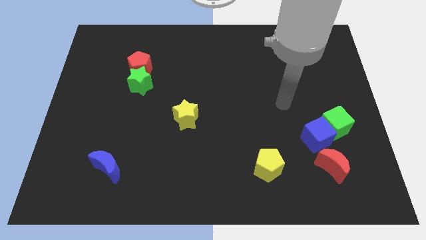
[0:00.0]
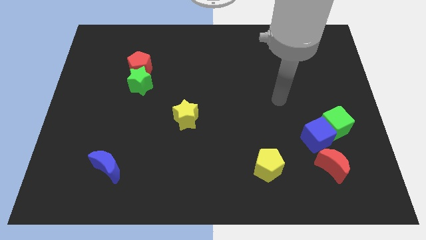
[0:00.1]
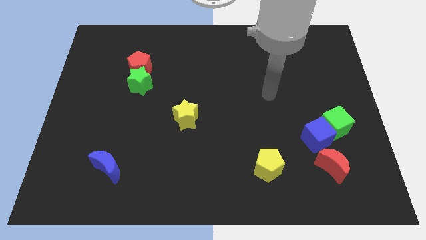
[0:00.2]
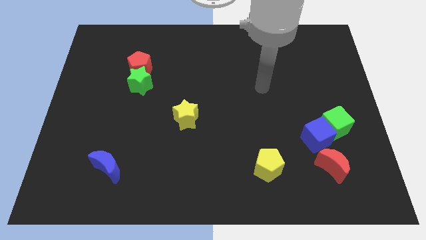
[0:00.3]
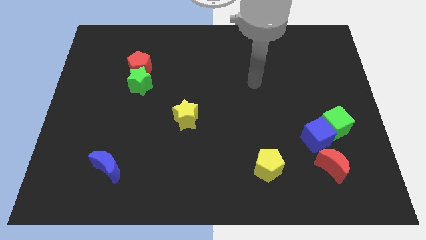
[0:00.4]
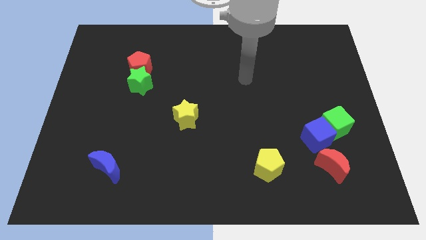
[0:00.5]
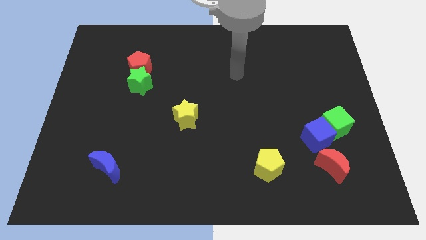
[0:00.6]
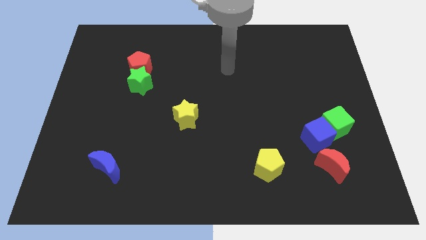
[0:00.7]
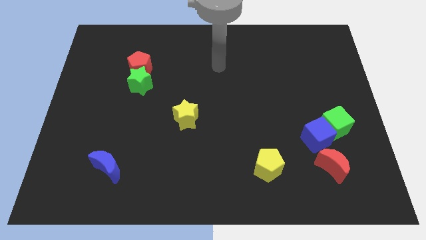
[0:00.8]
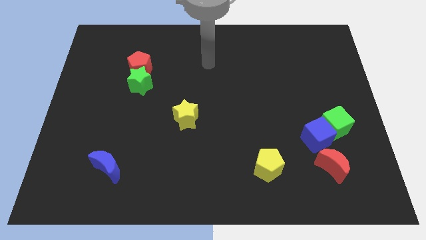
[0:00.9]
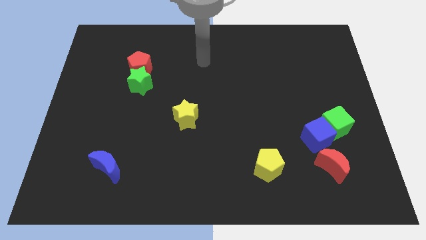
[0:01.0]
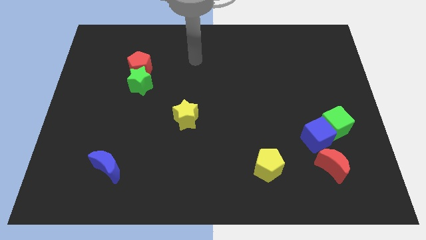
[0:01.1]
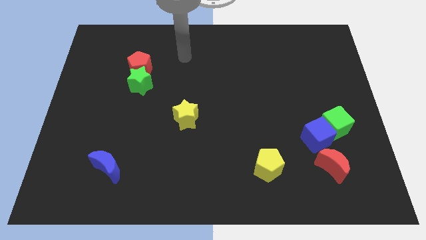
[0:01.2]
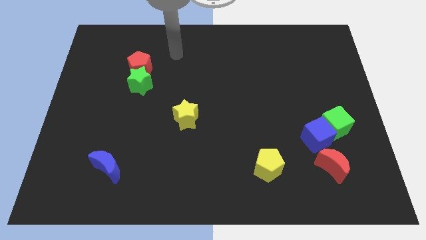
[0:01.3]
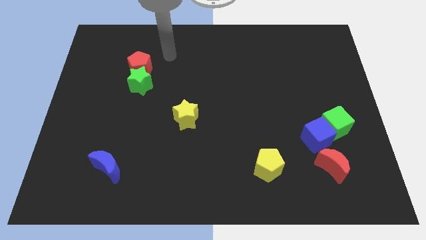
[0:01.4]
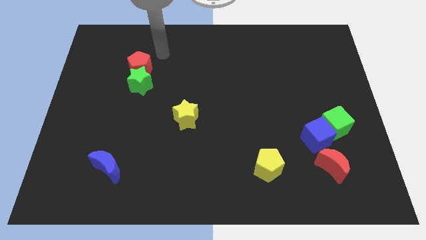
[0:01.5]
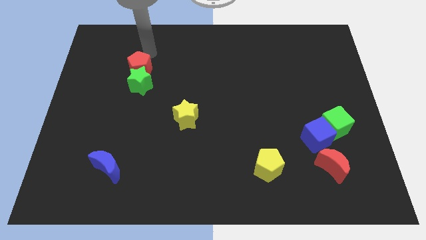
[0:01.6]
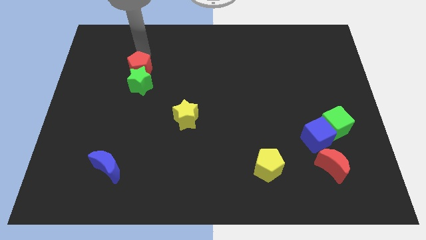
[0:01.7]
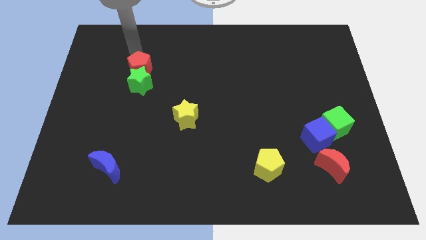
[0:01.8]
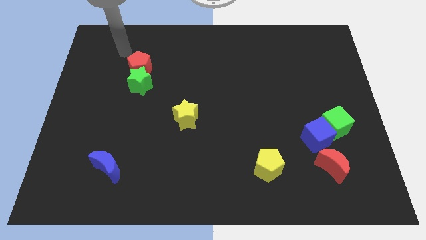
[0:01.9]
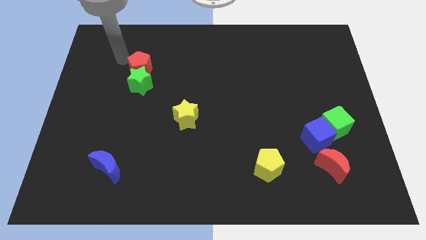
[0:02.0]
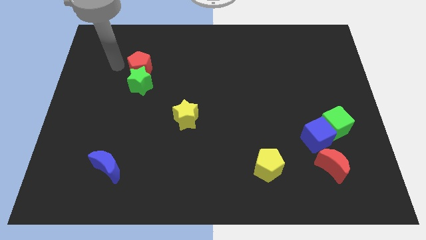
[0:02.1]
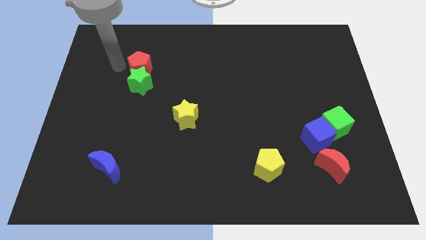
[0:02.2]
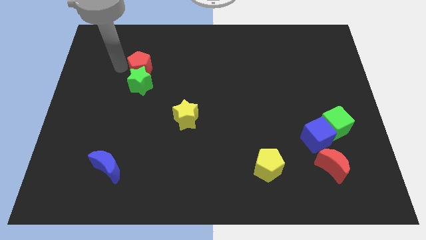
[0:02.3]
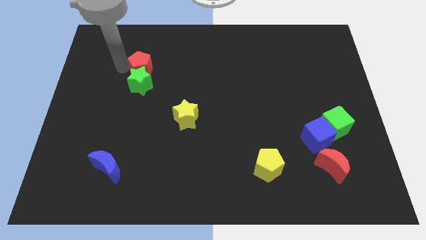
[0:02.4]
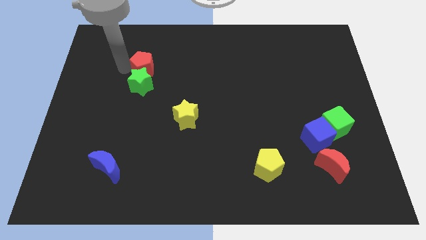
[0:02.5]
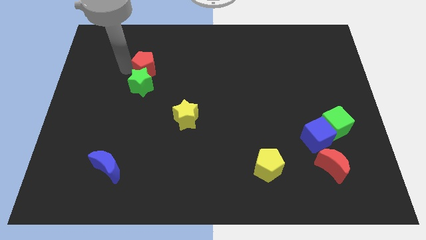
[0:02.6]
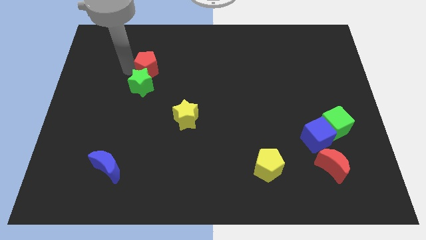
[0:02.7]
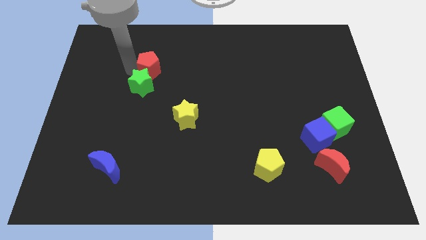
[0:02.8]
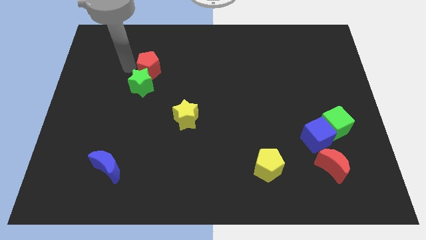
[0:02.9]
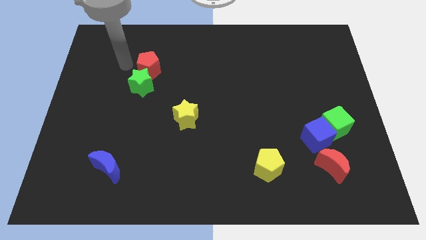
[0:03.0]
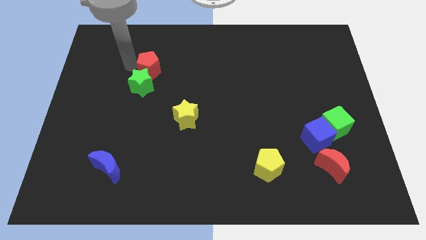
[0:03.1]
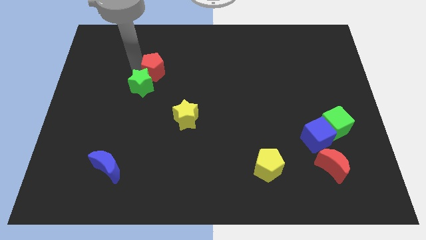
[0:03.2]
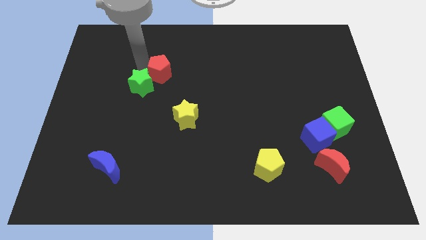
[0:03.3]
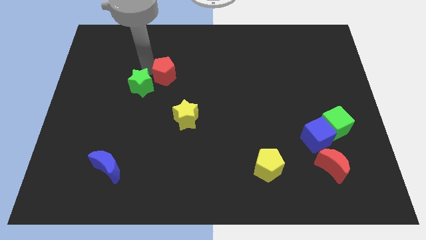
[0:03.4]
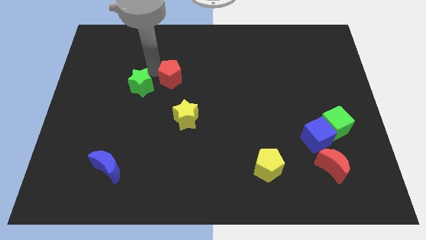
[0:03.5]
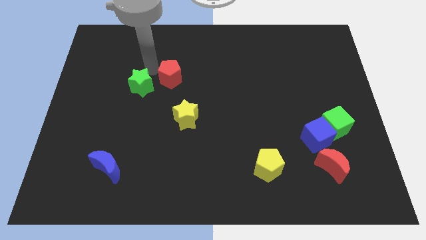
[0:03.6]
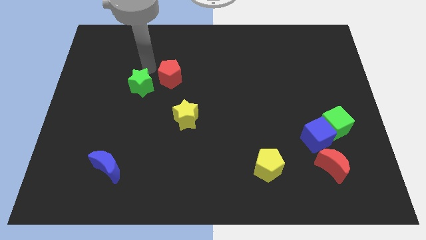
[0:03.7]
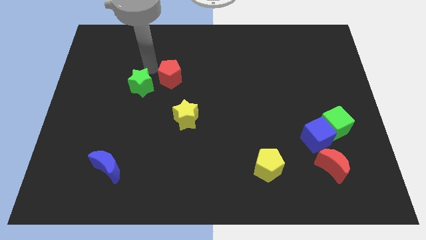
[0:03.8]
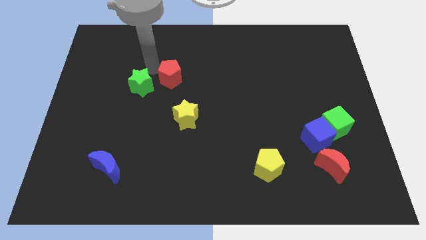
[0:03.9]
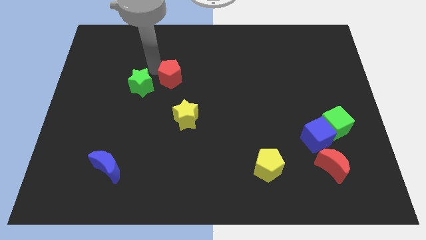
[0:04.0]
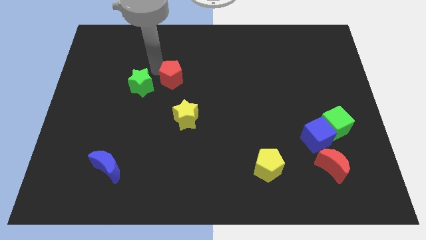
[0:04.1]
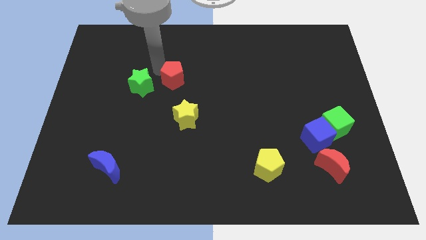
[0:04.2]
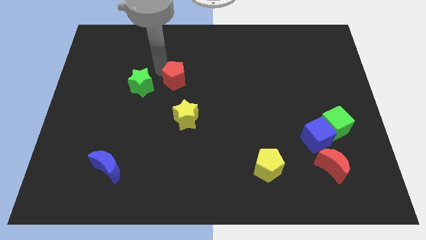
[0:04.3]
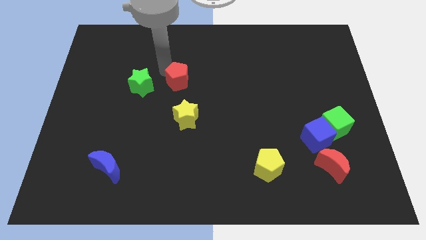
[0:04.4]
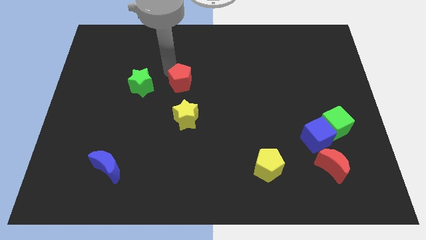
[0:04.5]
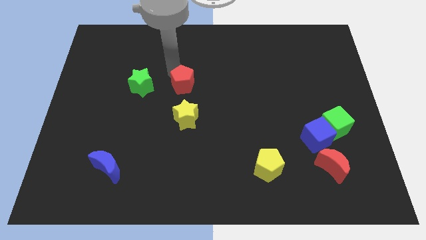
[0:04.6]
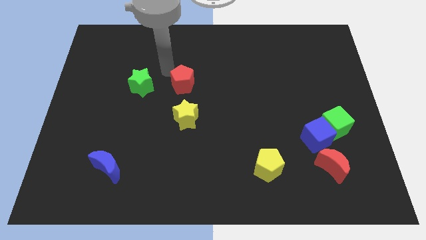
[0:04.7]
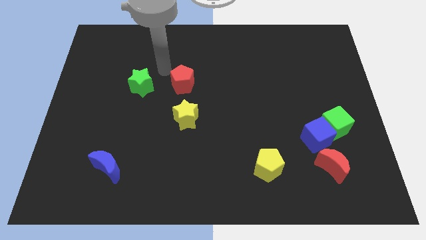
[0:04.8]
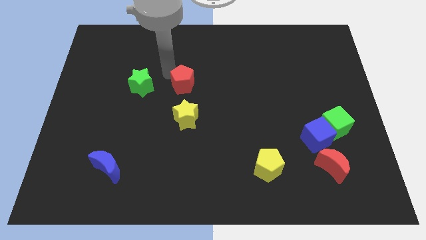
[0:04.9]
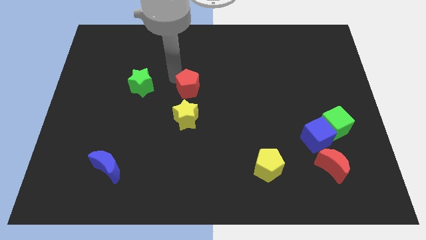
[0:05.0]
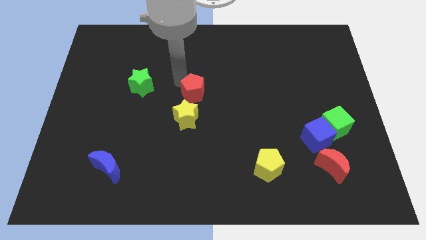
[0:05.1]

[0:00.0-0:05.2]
push the red pentagon diagonally up and to the right of the yellow star

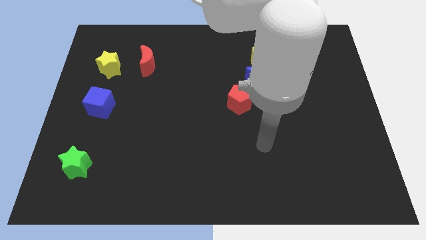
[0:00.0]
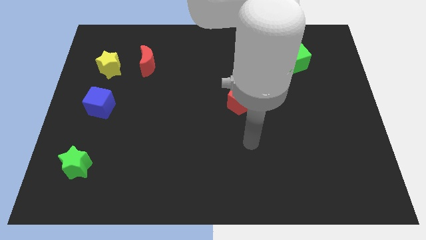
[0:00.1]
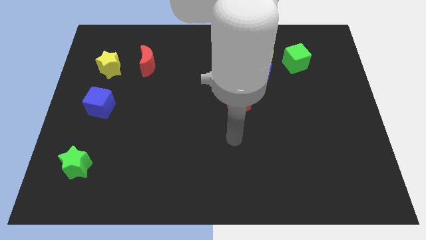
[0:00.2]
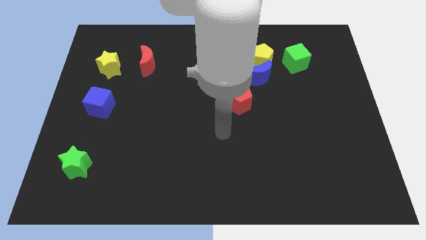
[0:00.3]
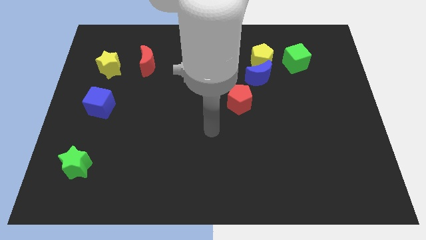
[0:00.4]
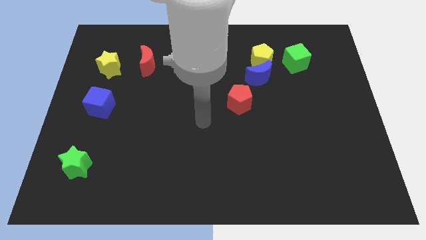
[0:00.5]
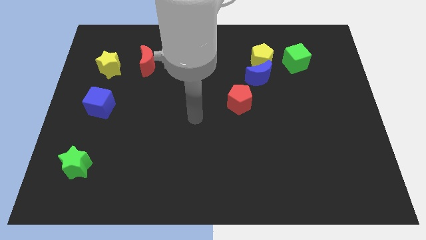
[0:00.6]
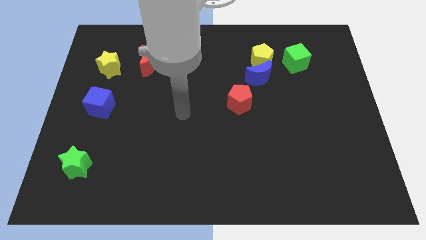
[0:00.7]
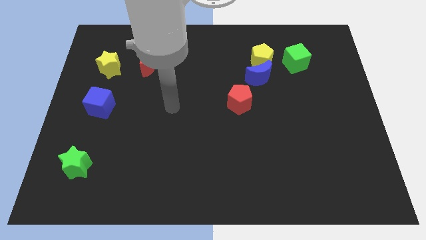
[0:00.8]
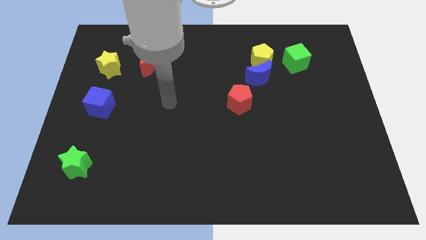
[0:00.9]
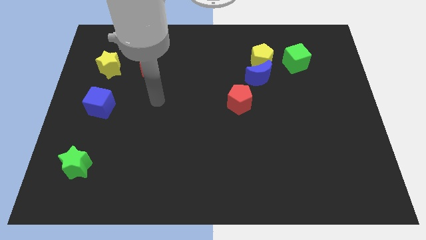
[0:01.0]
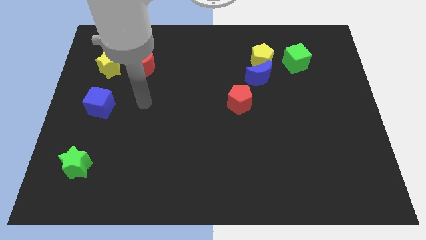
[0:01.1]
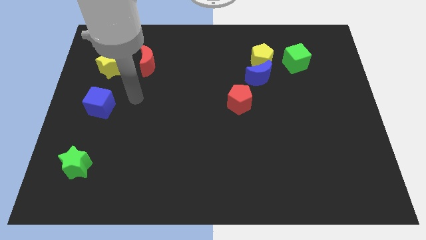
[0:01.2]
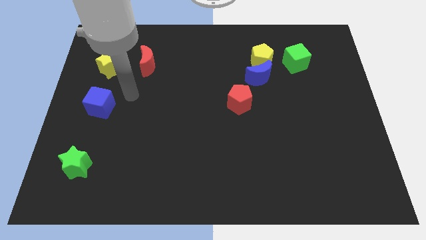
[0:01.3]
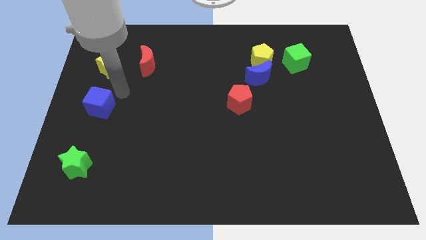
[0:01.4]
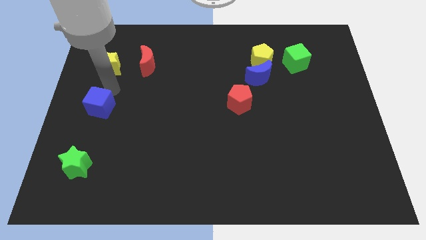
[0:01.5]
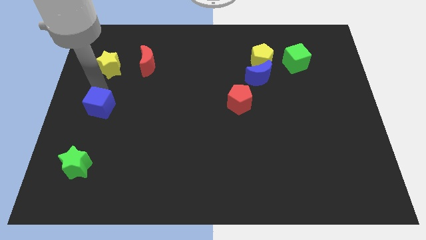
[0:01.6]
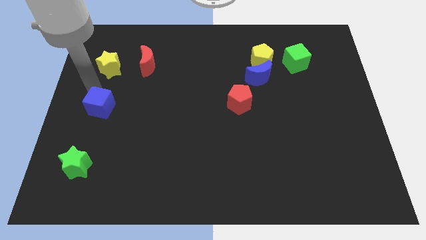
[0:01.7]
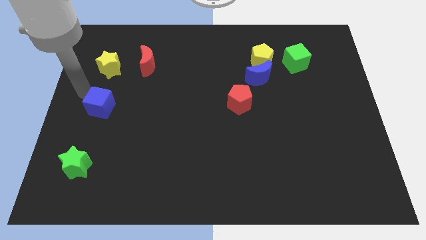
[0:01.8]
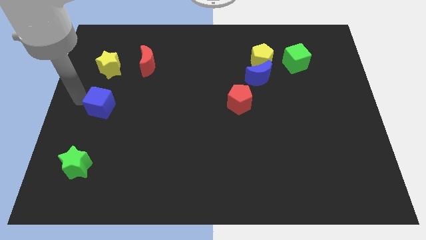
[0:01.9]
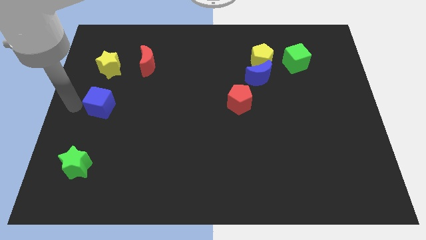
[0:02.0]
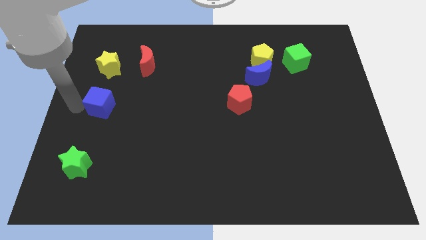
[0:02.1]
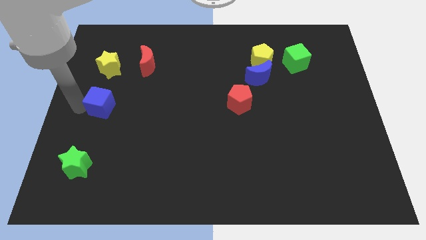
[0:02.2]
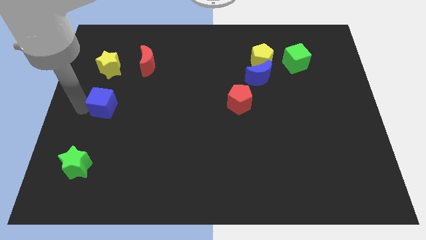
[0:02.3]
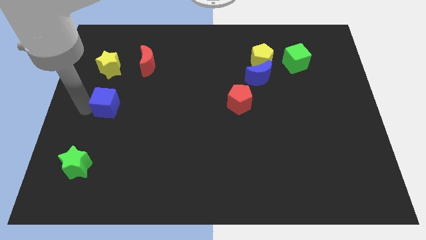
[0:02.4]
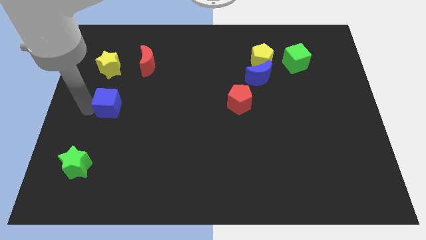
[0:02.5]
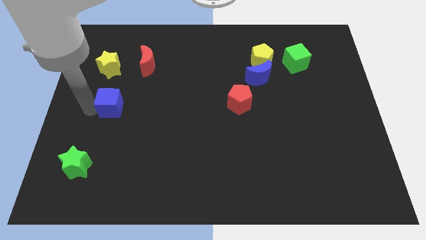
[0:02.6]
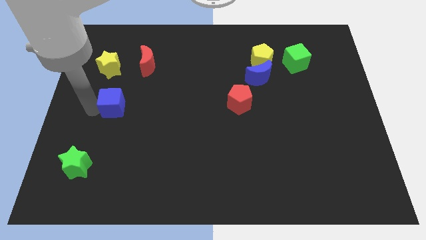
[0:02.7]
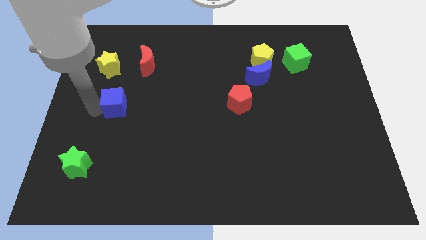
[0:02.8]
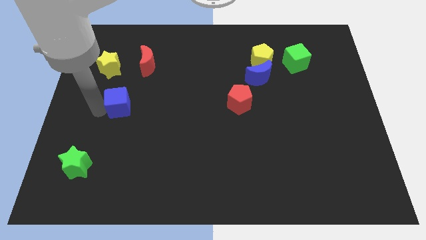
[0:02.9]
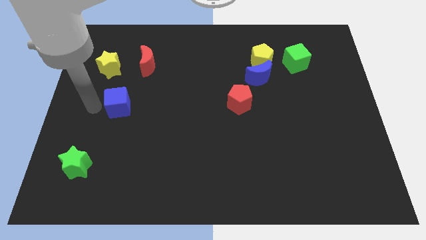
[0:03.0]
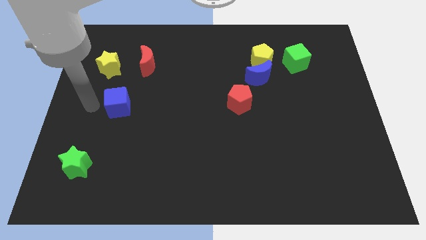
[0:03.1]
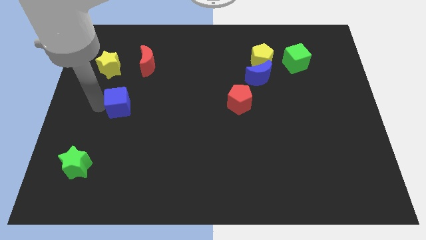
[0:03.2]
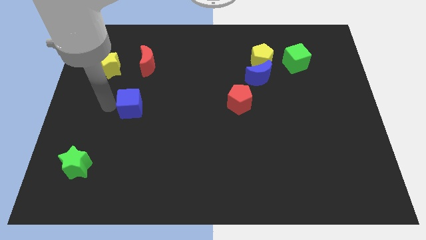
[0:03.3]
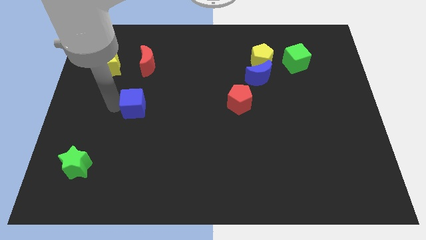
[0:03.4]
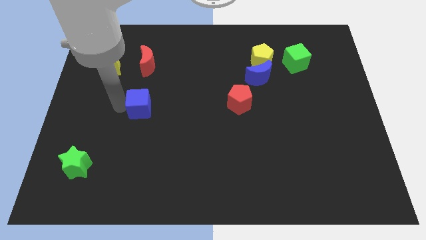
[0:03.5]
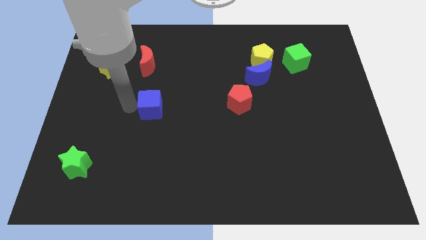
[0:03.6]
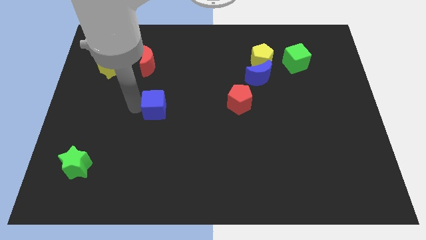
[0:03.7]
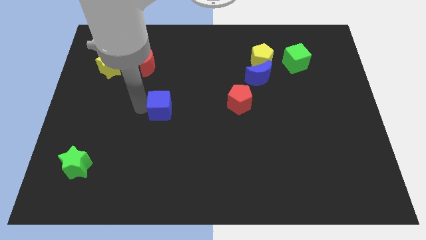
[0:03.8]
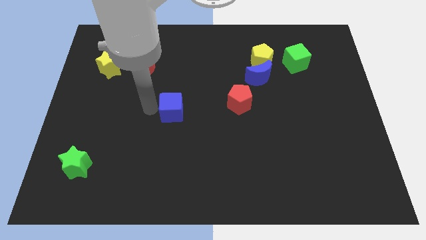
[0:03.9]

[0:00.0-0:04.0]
push the blue cube to the left of the red pentagon
